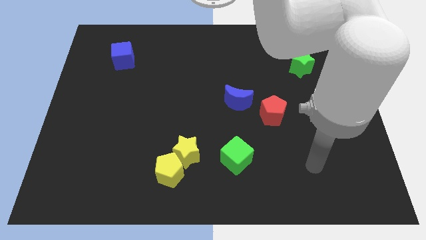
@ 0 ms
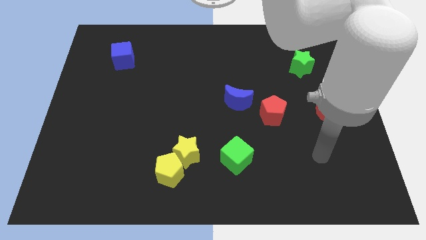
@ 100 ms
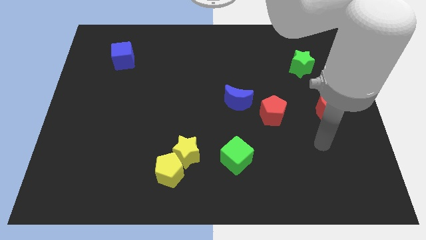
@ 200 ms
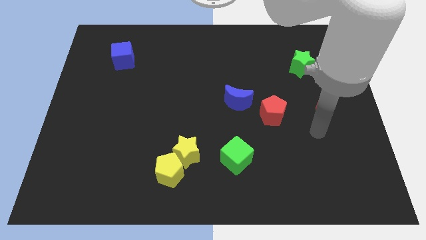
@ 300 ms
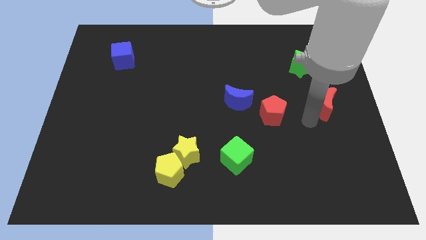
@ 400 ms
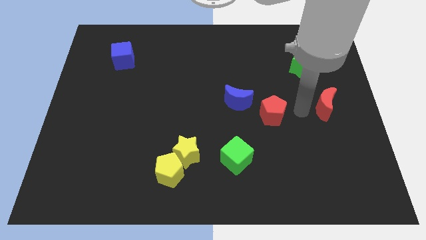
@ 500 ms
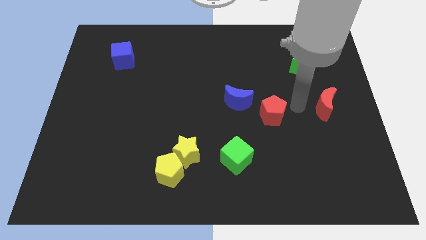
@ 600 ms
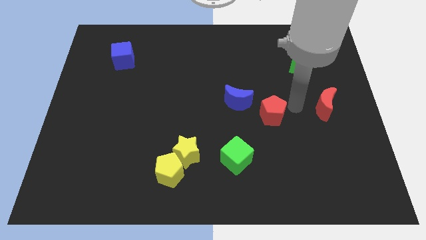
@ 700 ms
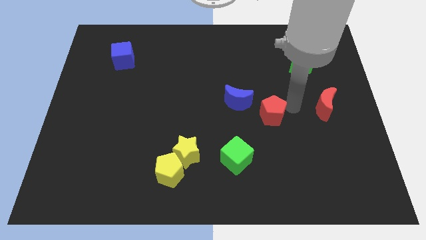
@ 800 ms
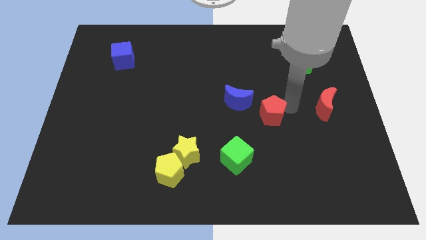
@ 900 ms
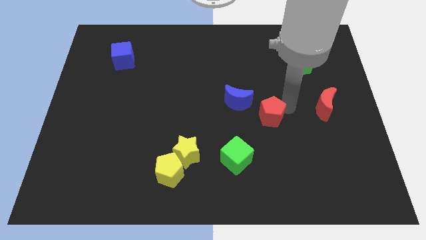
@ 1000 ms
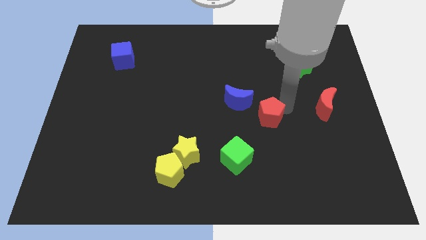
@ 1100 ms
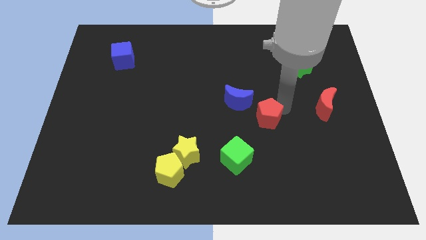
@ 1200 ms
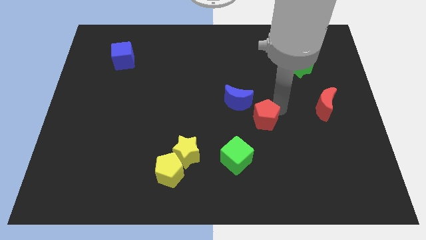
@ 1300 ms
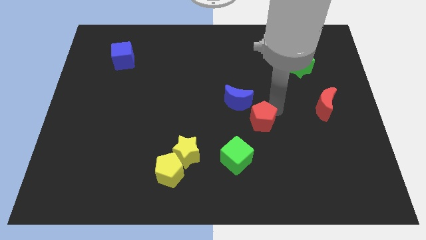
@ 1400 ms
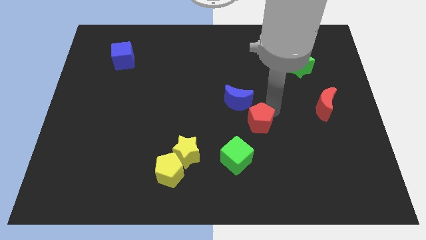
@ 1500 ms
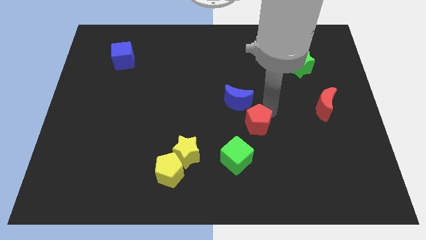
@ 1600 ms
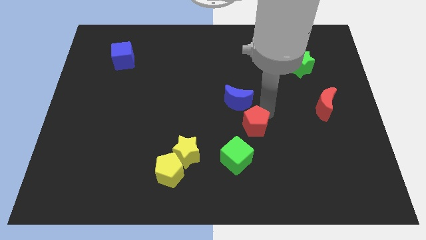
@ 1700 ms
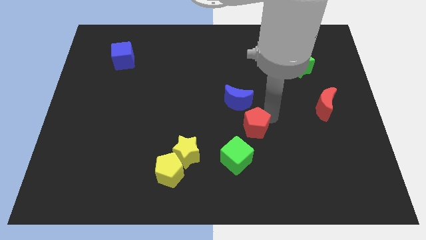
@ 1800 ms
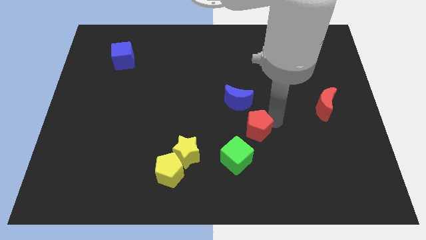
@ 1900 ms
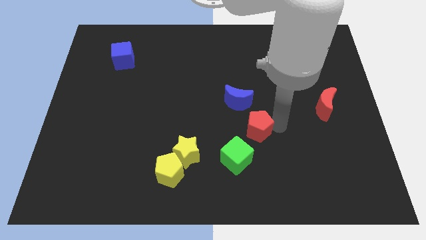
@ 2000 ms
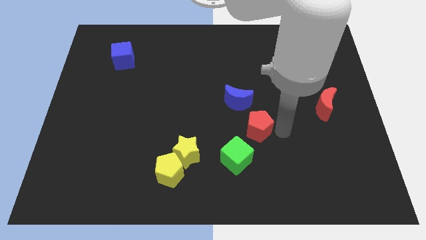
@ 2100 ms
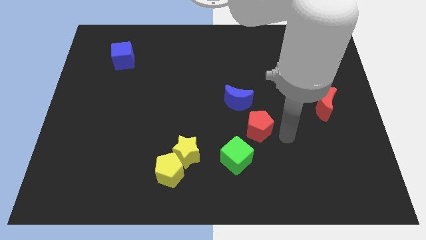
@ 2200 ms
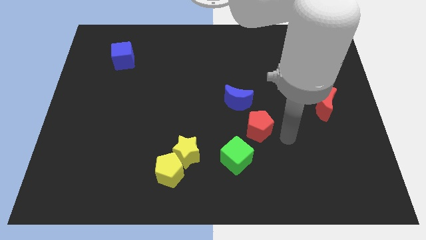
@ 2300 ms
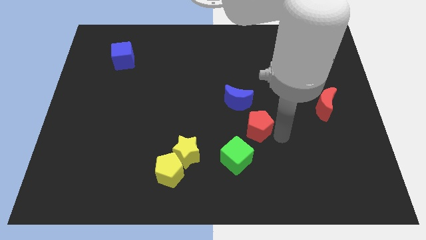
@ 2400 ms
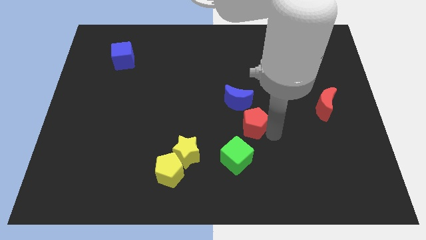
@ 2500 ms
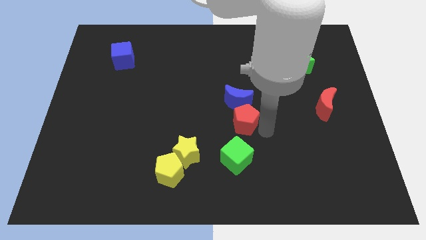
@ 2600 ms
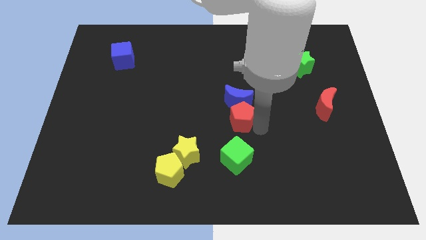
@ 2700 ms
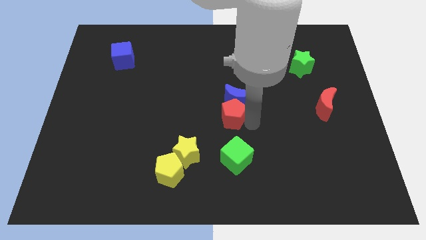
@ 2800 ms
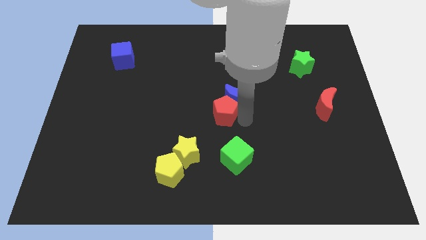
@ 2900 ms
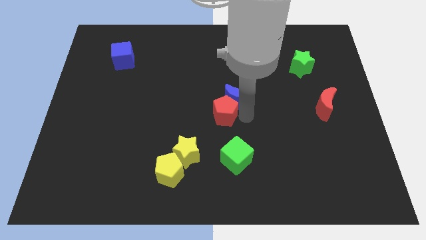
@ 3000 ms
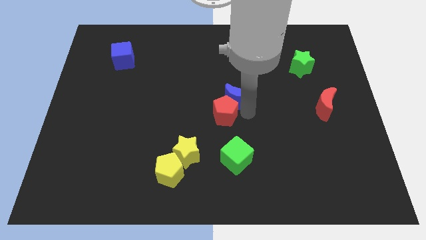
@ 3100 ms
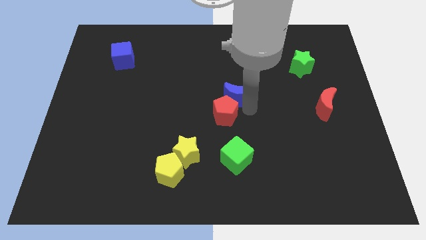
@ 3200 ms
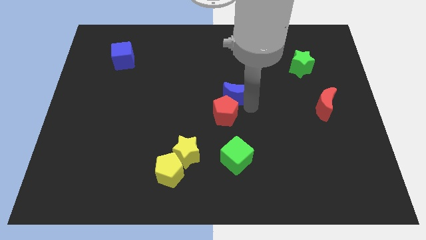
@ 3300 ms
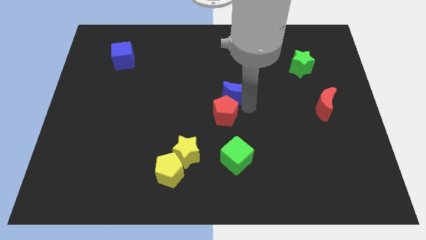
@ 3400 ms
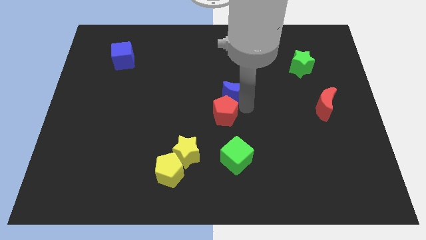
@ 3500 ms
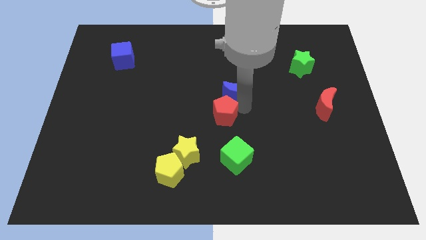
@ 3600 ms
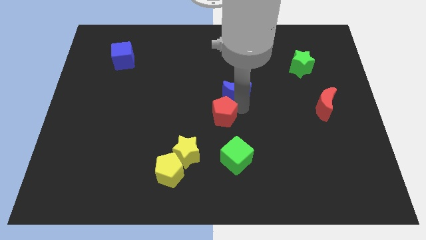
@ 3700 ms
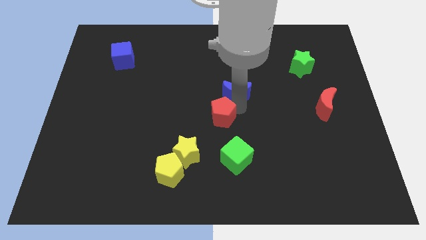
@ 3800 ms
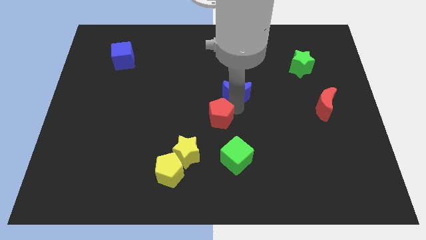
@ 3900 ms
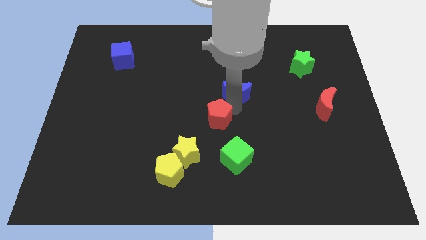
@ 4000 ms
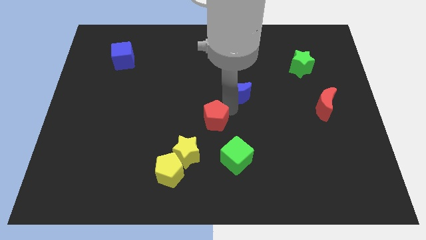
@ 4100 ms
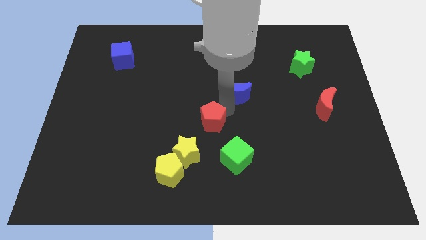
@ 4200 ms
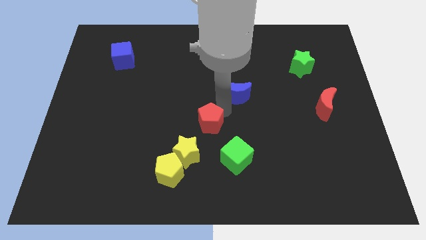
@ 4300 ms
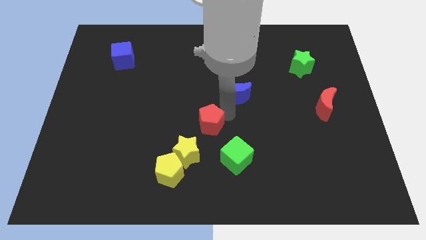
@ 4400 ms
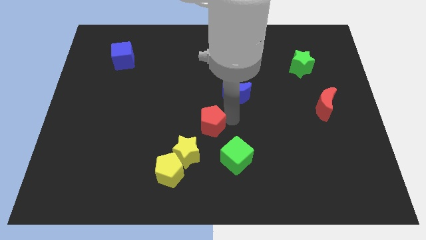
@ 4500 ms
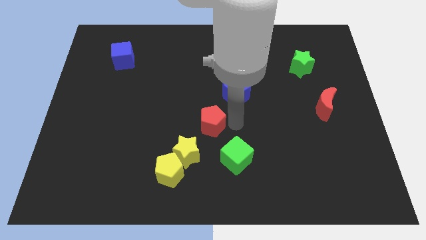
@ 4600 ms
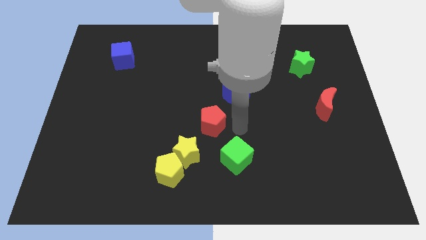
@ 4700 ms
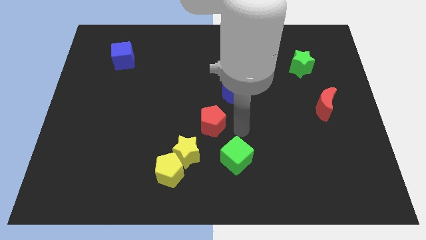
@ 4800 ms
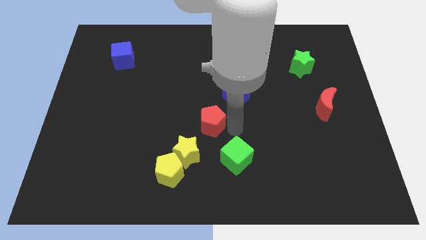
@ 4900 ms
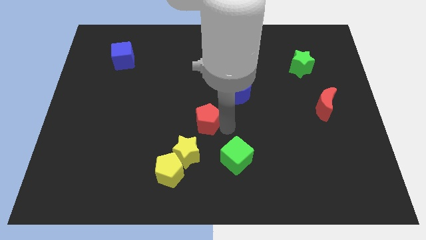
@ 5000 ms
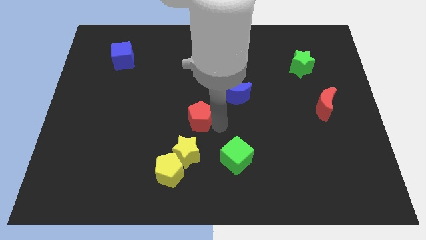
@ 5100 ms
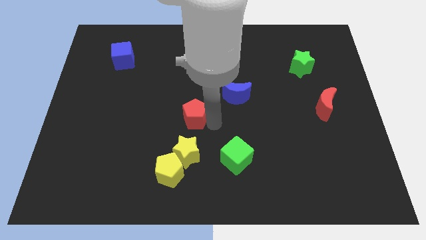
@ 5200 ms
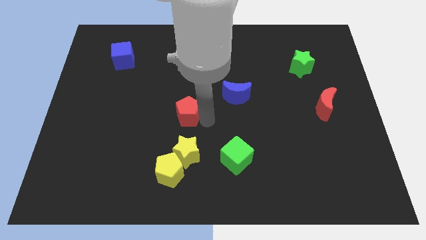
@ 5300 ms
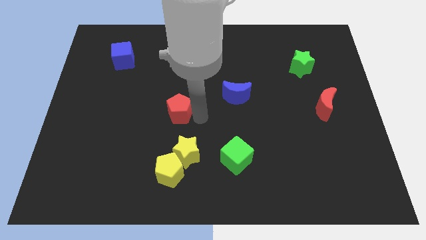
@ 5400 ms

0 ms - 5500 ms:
push the red pentagon to the left

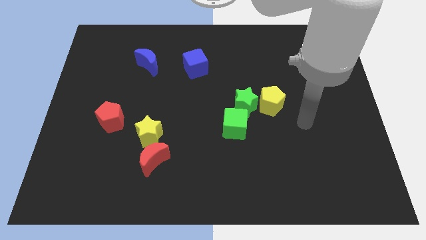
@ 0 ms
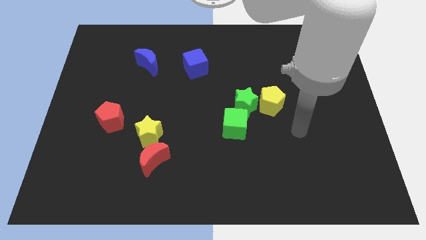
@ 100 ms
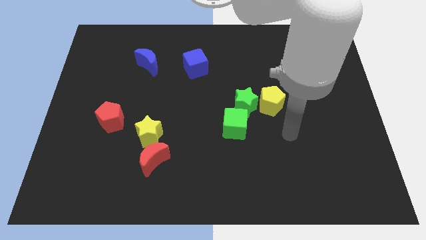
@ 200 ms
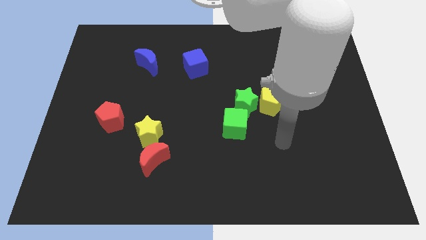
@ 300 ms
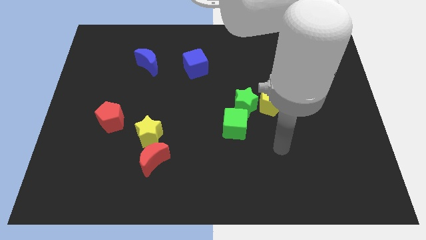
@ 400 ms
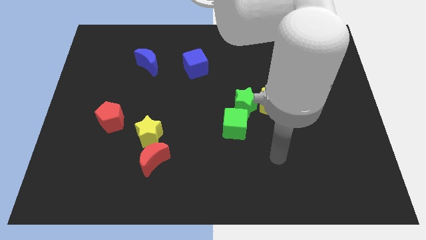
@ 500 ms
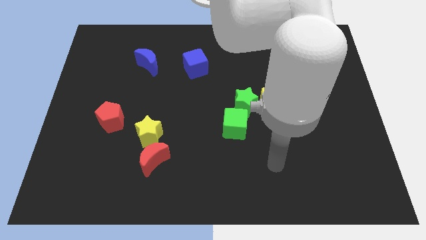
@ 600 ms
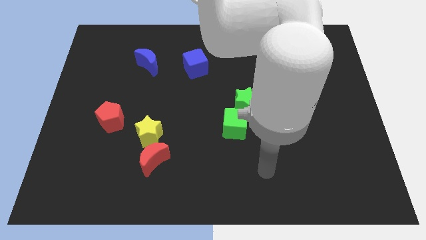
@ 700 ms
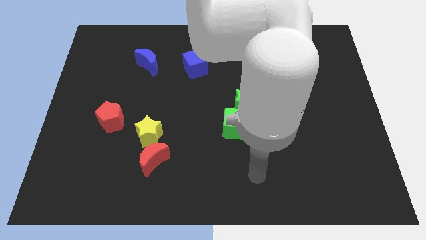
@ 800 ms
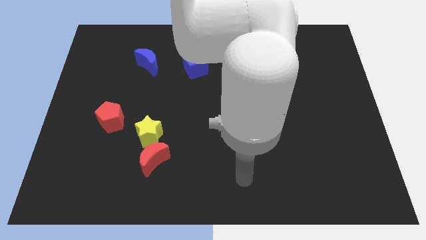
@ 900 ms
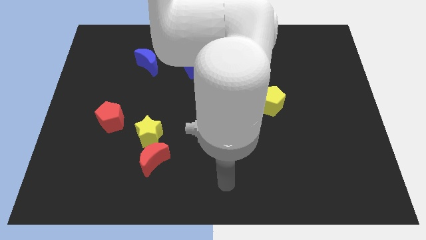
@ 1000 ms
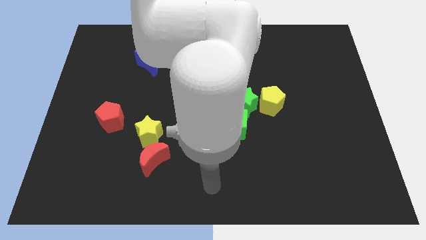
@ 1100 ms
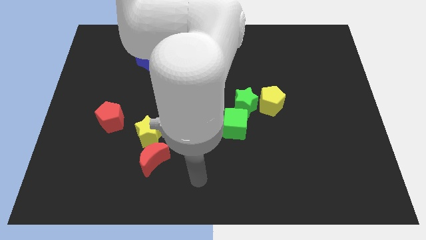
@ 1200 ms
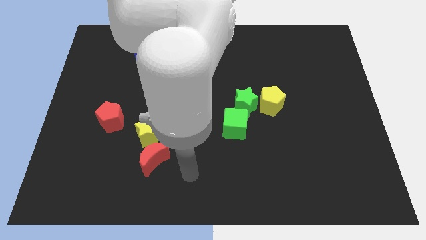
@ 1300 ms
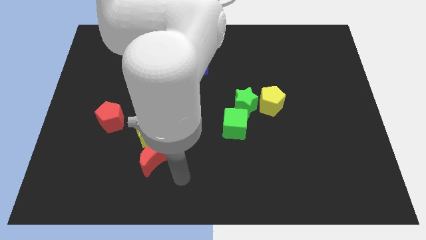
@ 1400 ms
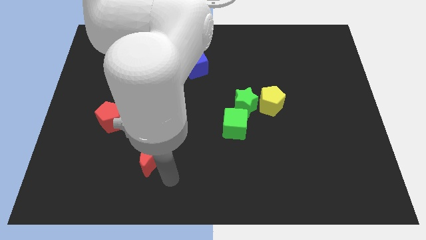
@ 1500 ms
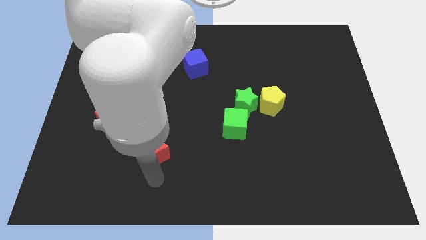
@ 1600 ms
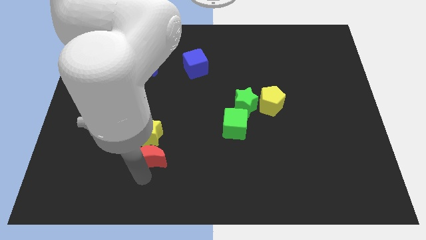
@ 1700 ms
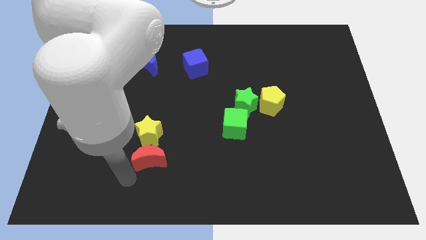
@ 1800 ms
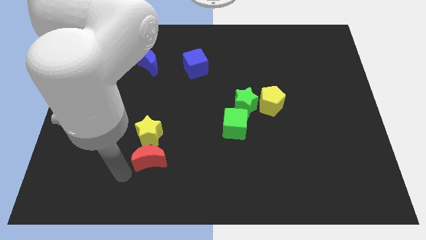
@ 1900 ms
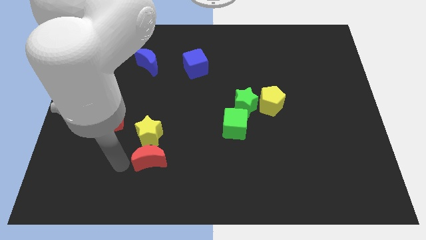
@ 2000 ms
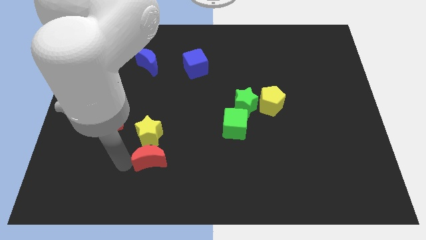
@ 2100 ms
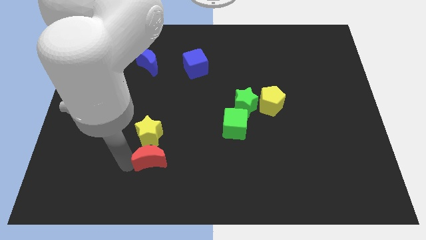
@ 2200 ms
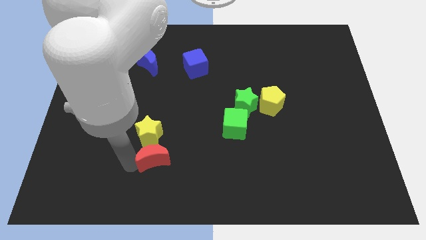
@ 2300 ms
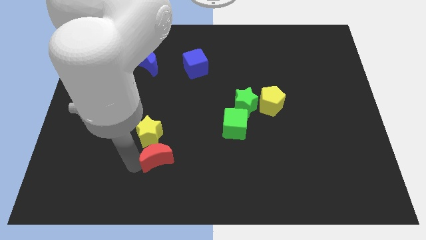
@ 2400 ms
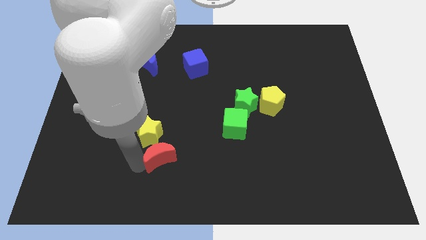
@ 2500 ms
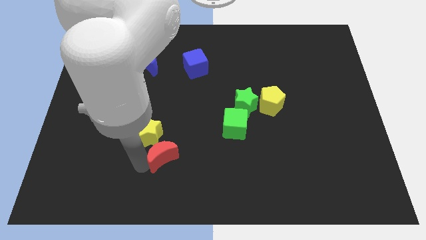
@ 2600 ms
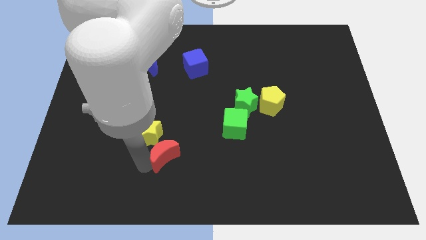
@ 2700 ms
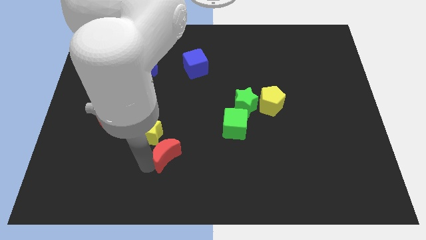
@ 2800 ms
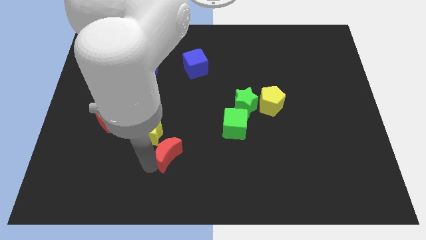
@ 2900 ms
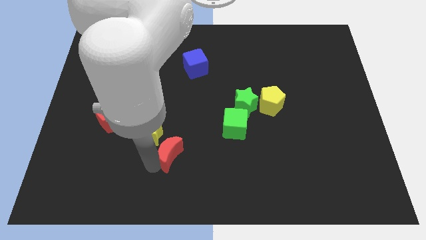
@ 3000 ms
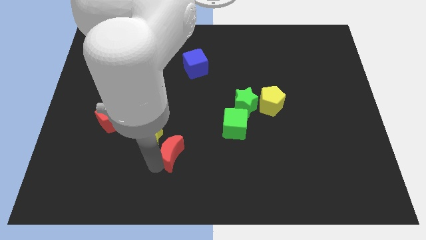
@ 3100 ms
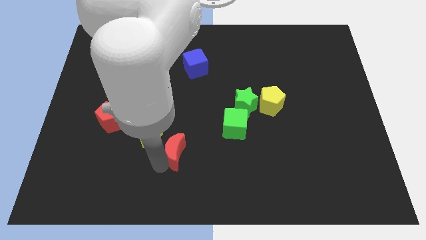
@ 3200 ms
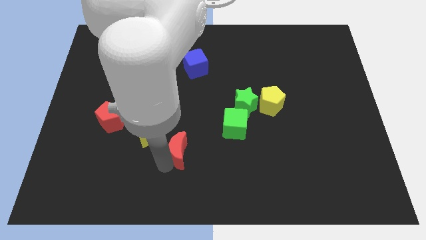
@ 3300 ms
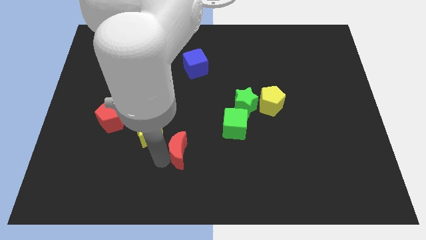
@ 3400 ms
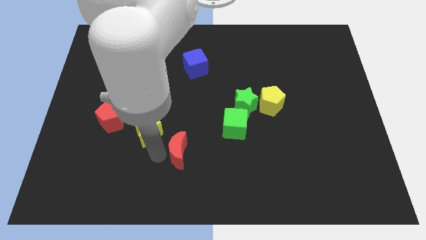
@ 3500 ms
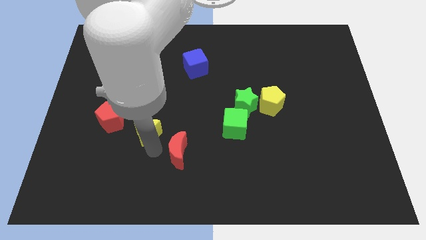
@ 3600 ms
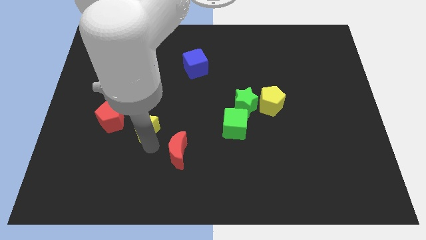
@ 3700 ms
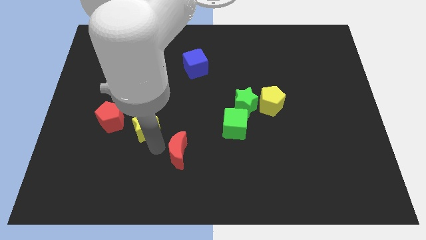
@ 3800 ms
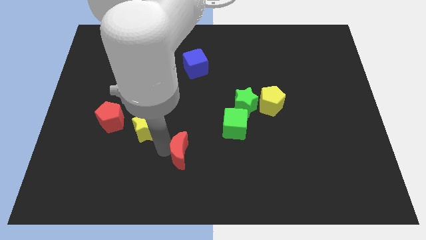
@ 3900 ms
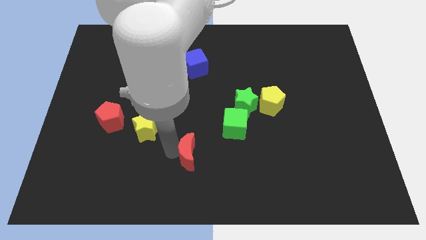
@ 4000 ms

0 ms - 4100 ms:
slightly push the red moon to the right
